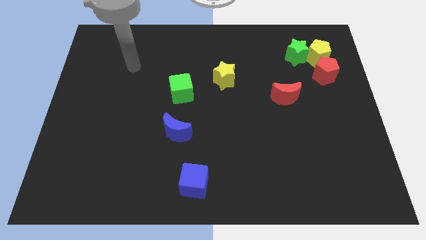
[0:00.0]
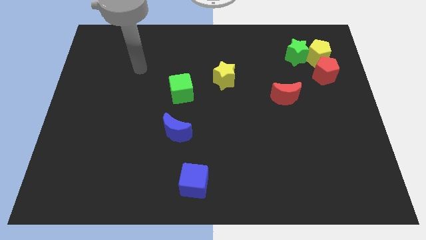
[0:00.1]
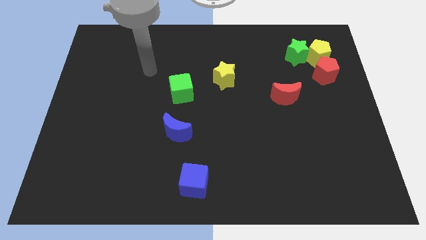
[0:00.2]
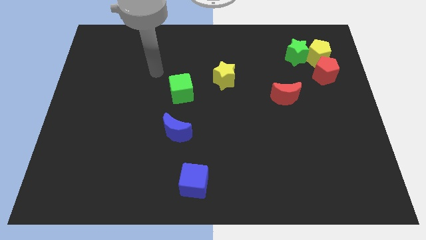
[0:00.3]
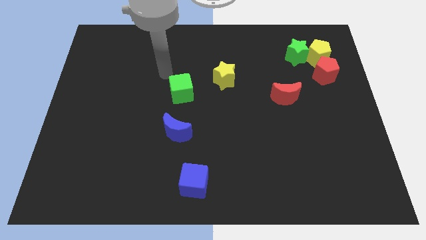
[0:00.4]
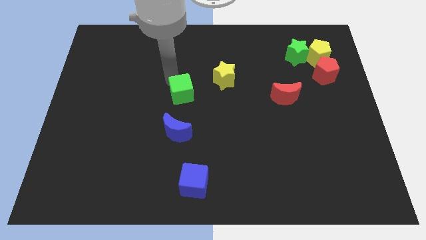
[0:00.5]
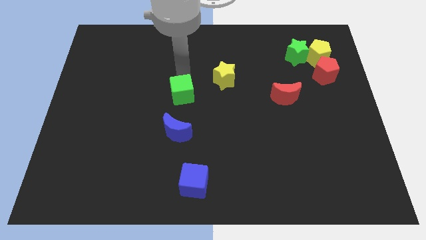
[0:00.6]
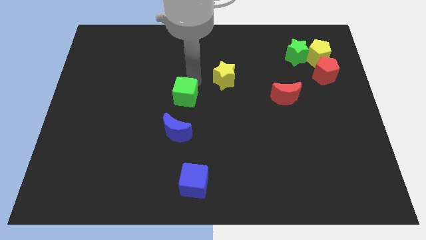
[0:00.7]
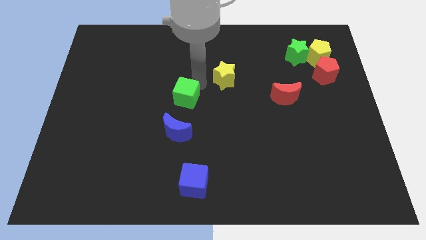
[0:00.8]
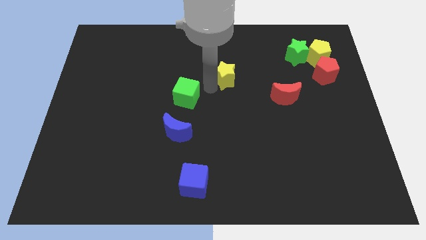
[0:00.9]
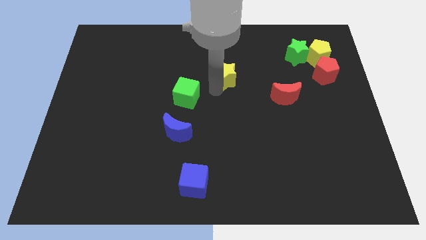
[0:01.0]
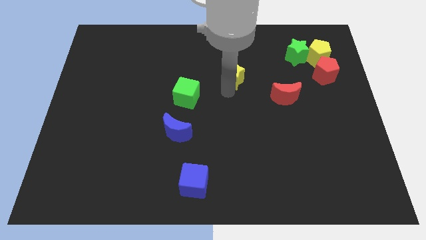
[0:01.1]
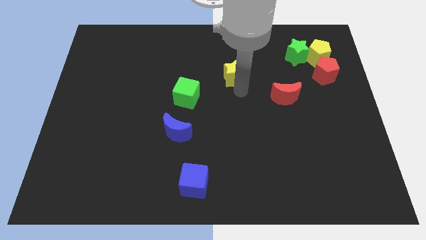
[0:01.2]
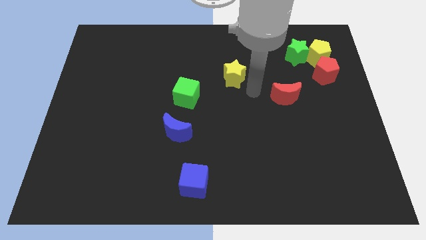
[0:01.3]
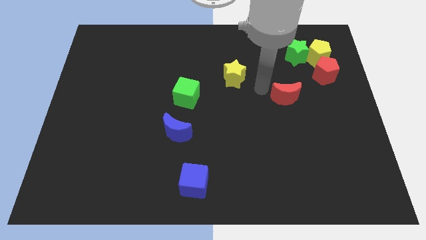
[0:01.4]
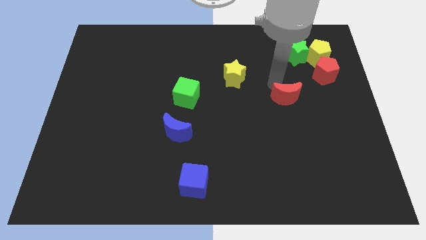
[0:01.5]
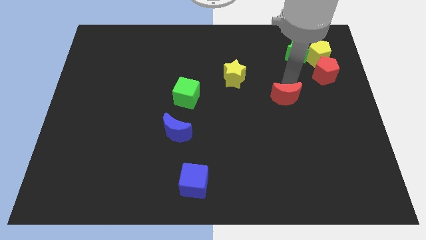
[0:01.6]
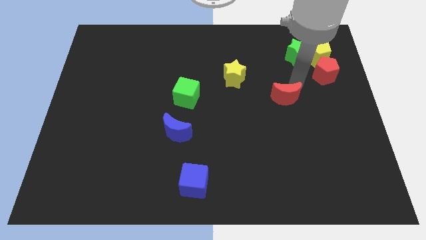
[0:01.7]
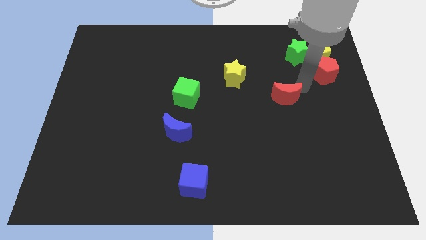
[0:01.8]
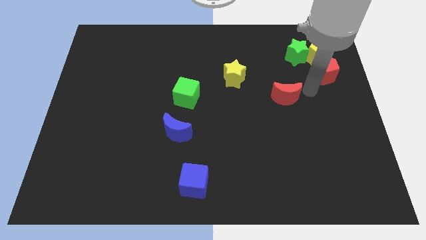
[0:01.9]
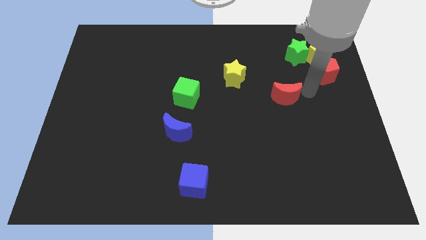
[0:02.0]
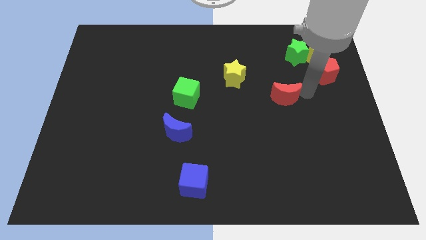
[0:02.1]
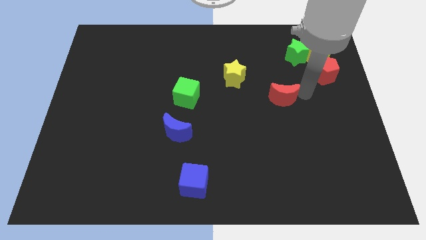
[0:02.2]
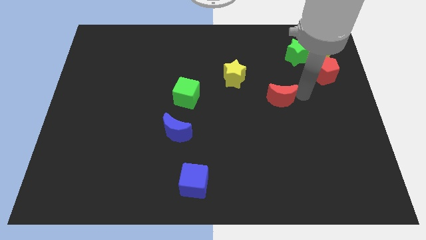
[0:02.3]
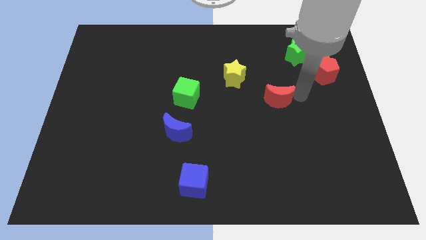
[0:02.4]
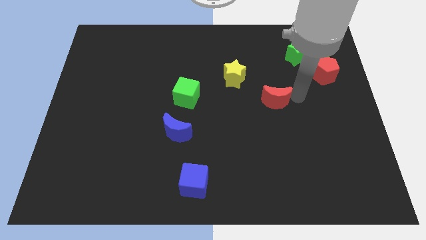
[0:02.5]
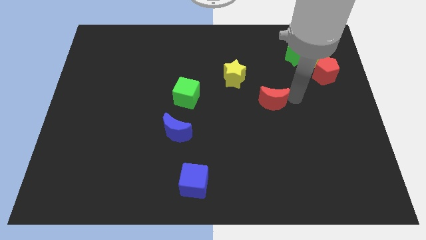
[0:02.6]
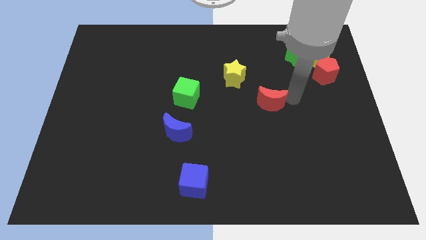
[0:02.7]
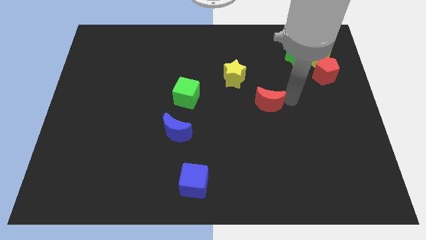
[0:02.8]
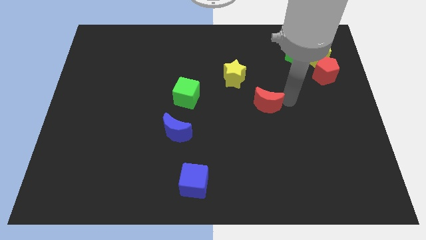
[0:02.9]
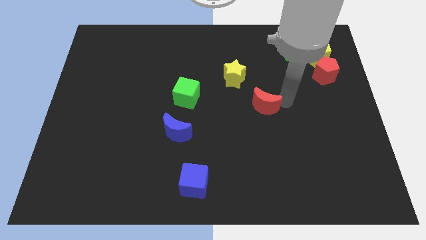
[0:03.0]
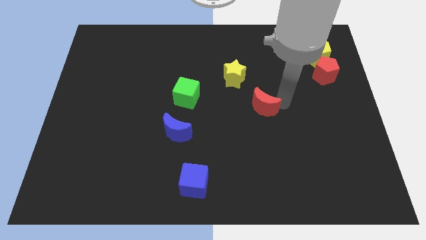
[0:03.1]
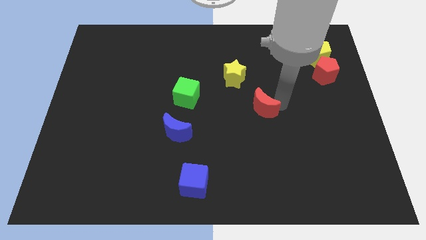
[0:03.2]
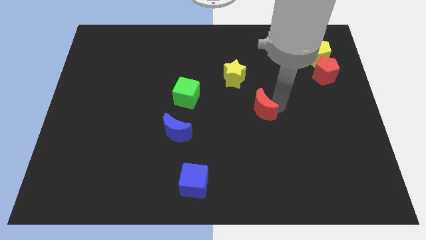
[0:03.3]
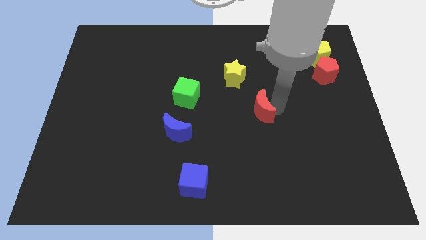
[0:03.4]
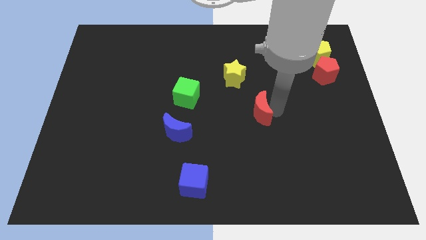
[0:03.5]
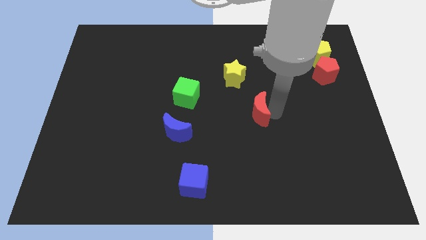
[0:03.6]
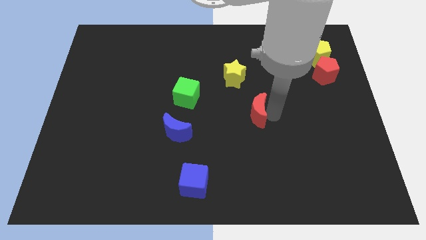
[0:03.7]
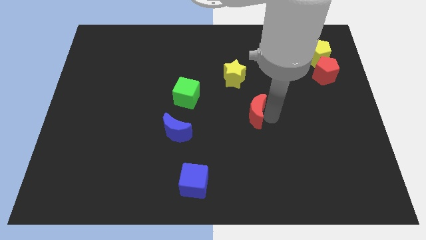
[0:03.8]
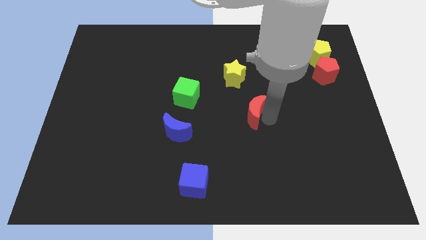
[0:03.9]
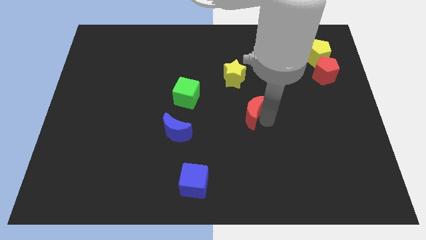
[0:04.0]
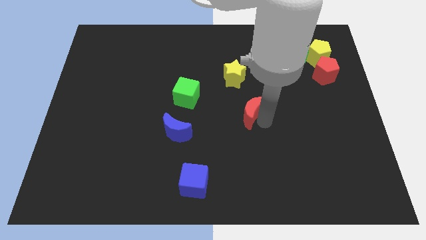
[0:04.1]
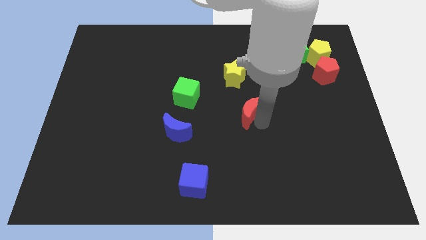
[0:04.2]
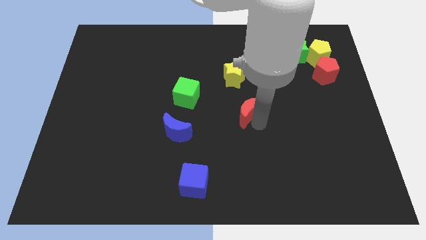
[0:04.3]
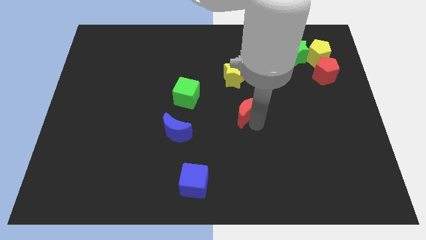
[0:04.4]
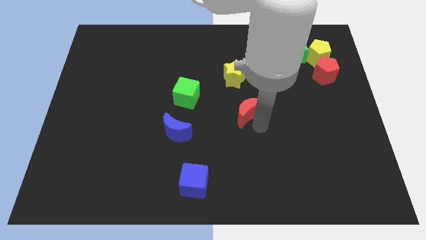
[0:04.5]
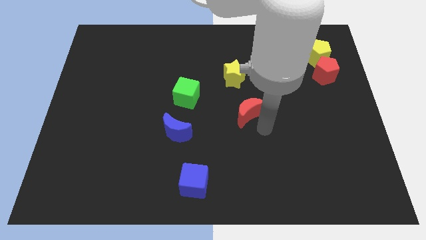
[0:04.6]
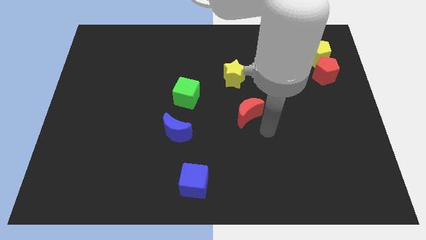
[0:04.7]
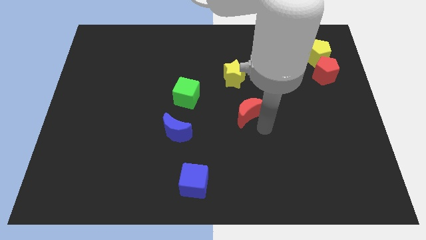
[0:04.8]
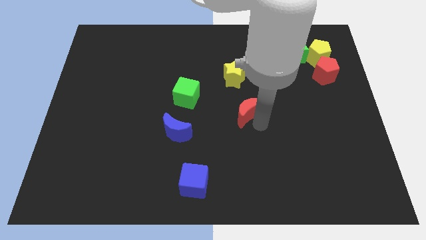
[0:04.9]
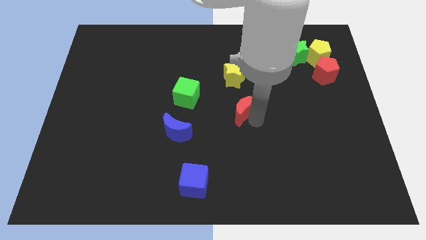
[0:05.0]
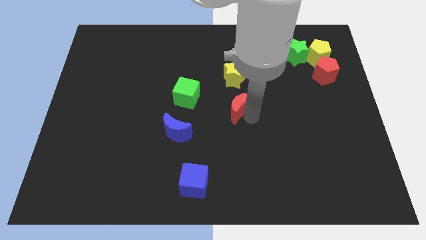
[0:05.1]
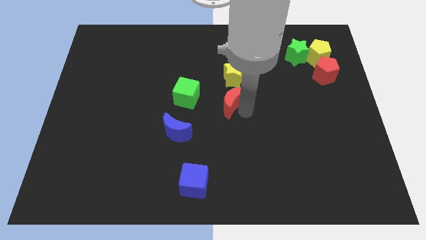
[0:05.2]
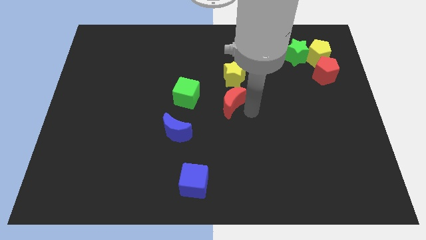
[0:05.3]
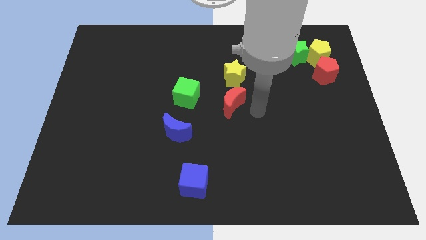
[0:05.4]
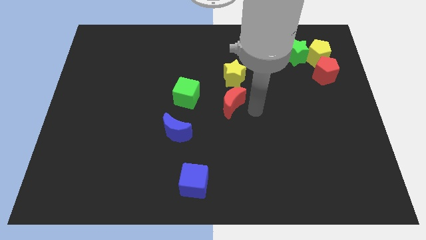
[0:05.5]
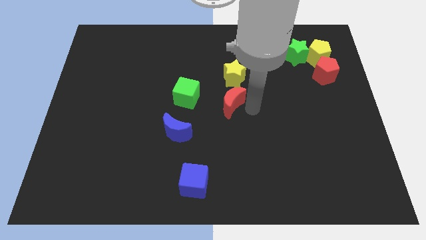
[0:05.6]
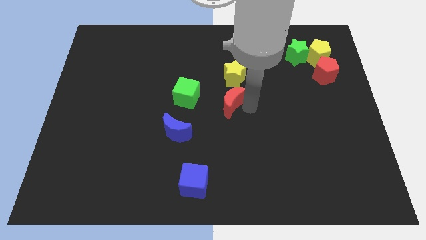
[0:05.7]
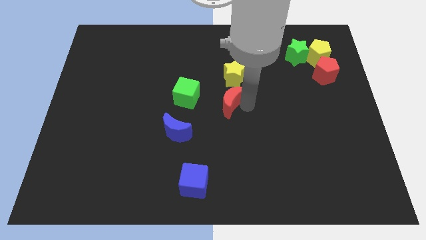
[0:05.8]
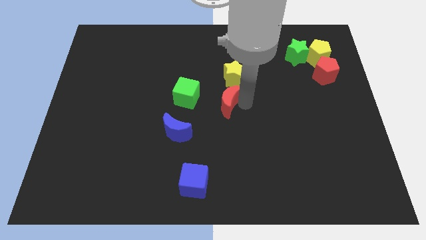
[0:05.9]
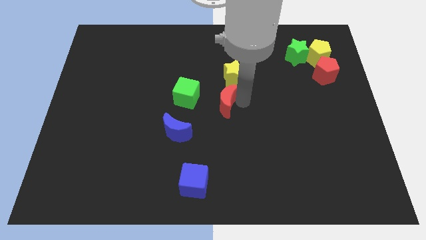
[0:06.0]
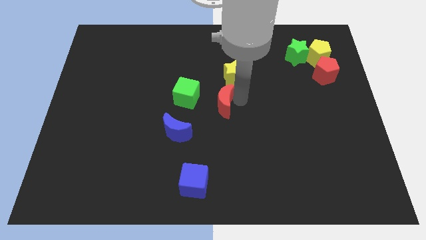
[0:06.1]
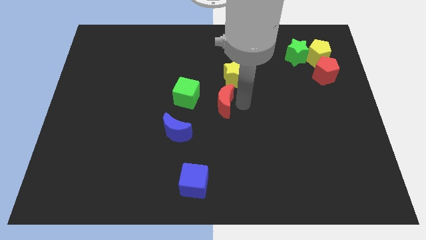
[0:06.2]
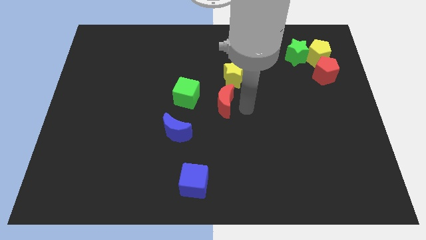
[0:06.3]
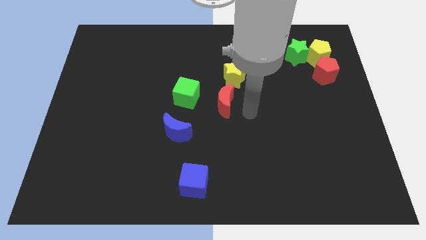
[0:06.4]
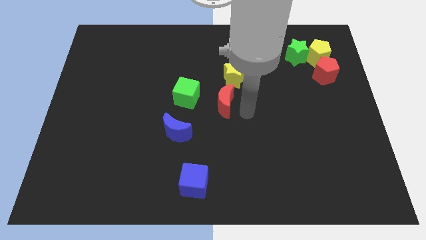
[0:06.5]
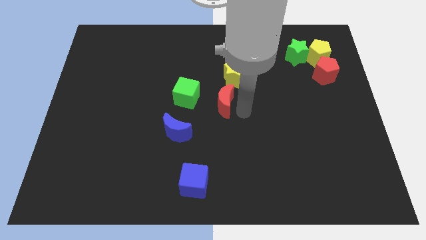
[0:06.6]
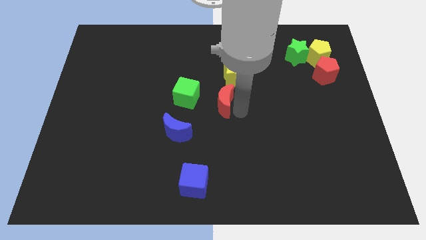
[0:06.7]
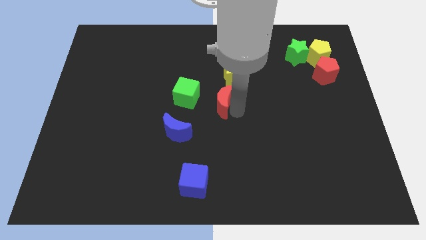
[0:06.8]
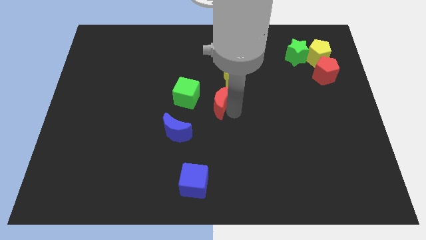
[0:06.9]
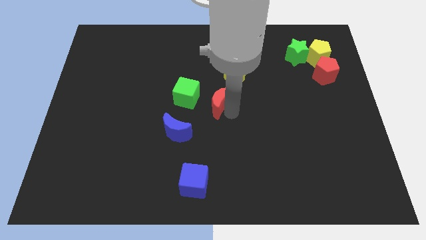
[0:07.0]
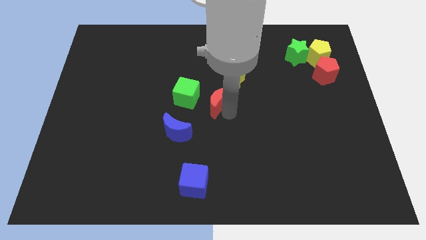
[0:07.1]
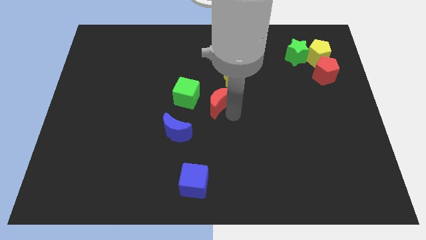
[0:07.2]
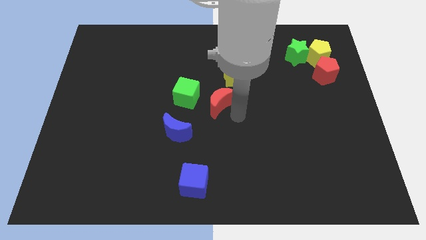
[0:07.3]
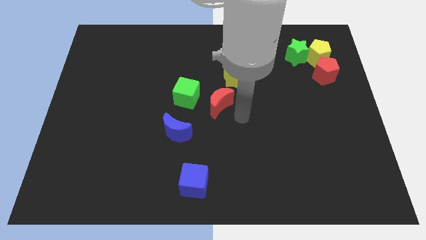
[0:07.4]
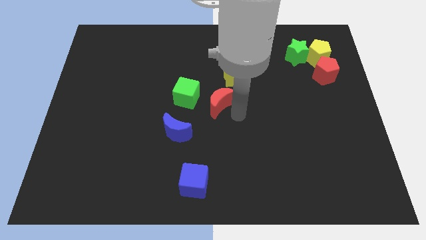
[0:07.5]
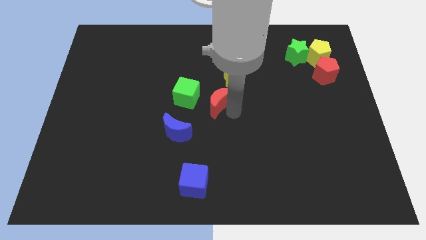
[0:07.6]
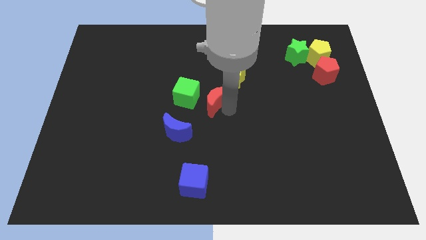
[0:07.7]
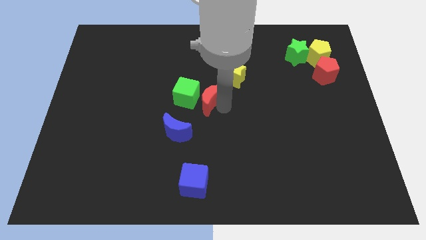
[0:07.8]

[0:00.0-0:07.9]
push the red moon to the green cube
